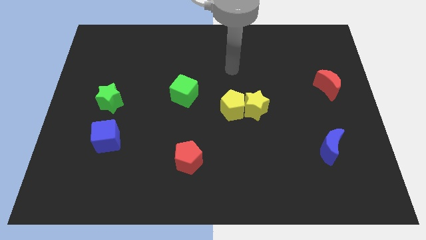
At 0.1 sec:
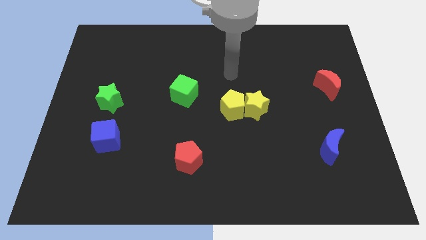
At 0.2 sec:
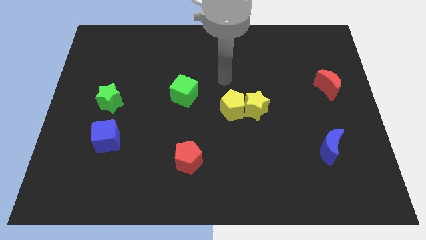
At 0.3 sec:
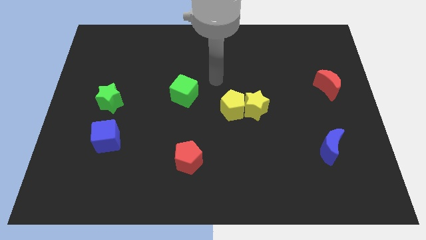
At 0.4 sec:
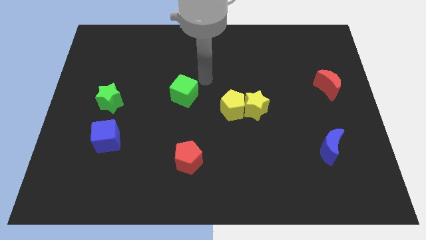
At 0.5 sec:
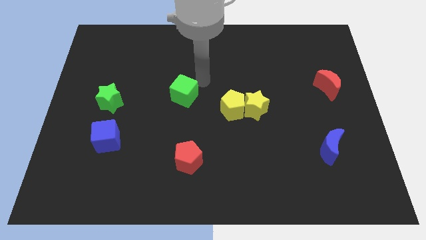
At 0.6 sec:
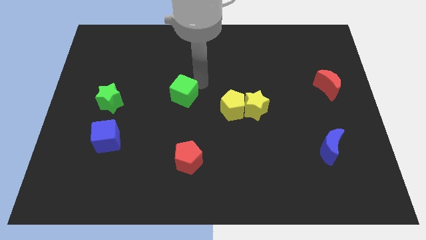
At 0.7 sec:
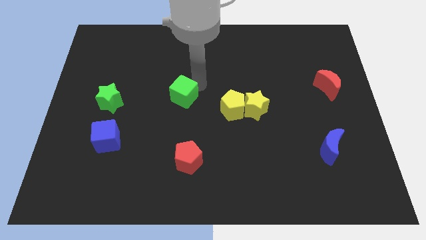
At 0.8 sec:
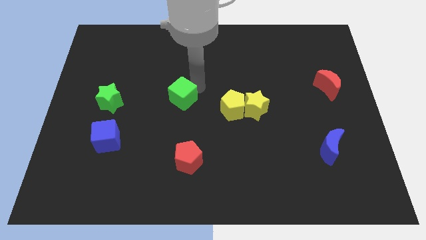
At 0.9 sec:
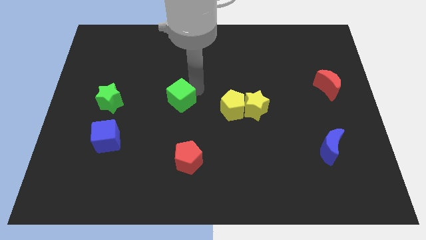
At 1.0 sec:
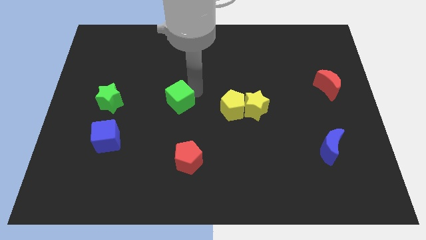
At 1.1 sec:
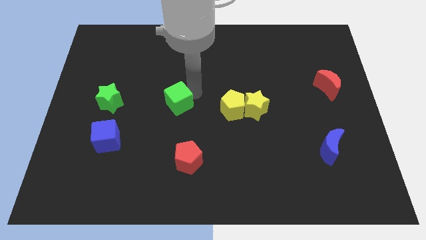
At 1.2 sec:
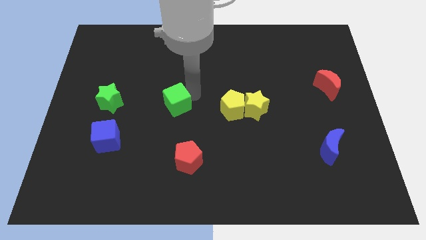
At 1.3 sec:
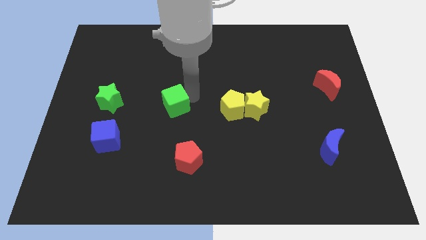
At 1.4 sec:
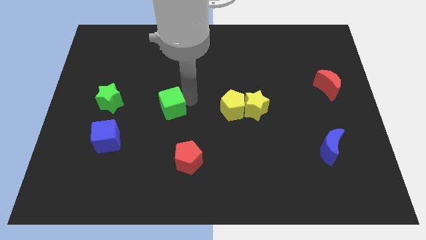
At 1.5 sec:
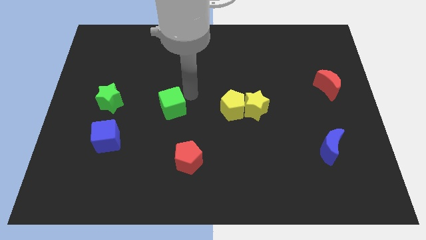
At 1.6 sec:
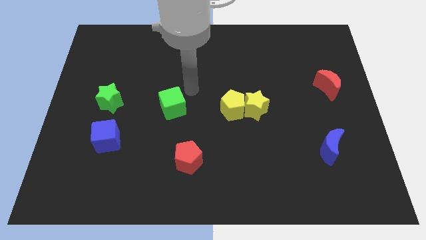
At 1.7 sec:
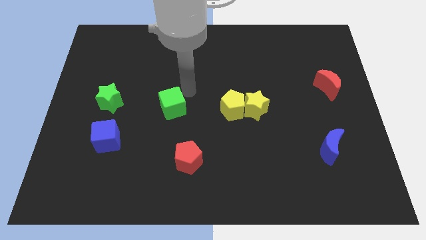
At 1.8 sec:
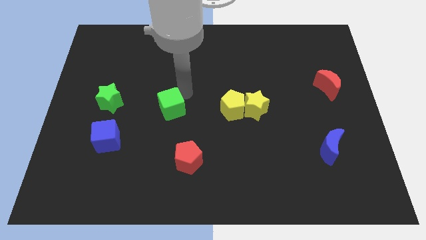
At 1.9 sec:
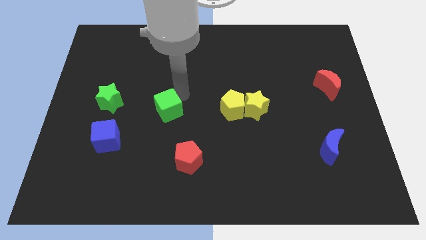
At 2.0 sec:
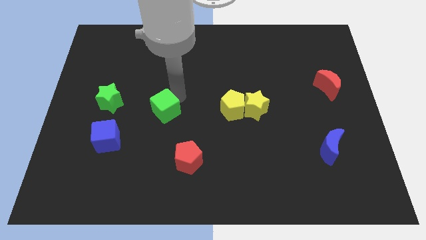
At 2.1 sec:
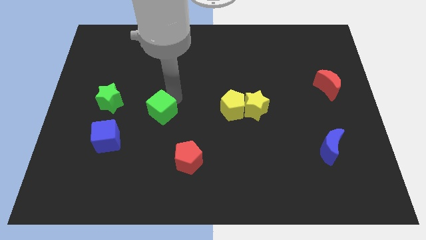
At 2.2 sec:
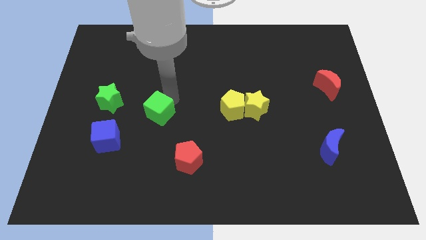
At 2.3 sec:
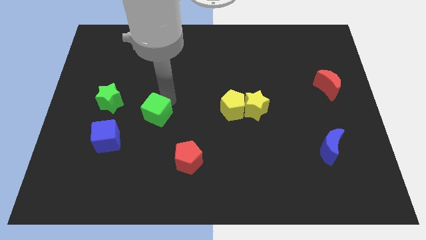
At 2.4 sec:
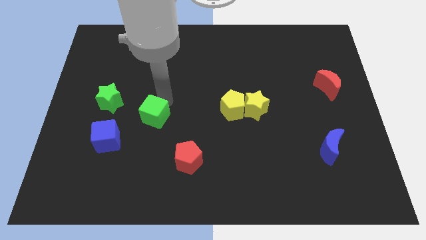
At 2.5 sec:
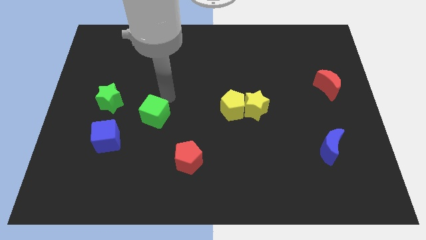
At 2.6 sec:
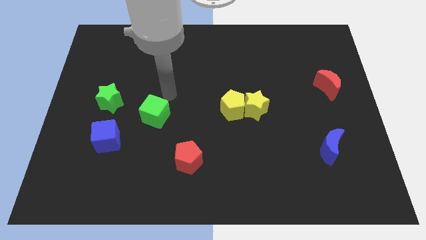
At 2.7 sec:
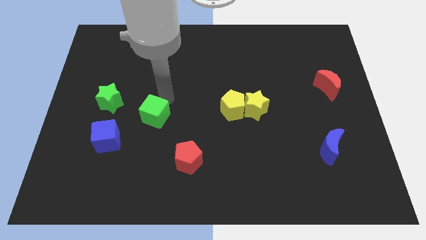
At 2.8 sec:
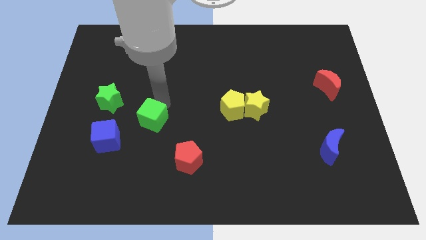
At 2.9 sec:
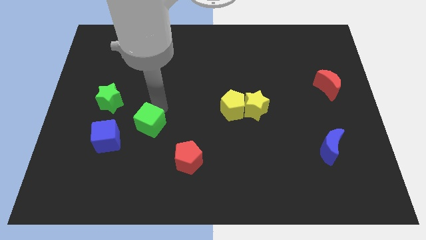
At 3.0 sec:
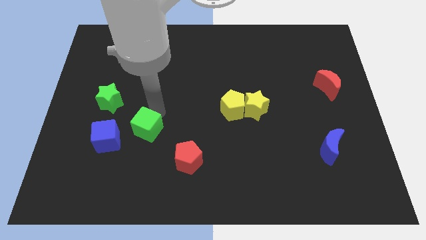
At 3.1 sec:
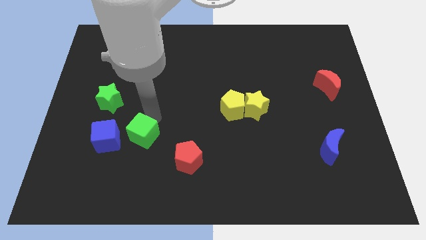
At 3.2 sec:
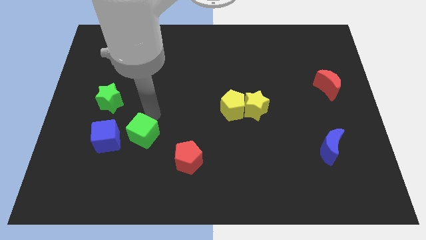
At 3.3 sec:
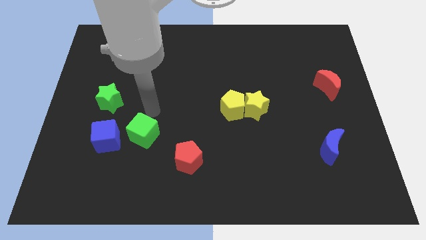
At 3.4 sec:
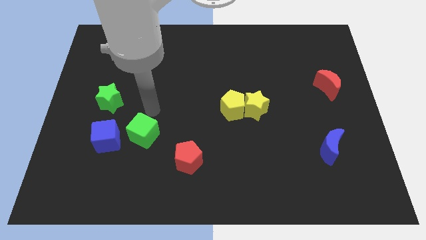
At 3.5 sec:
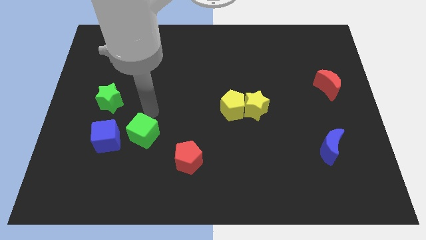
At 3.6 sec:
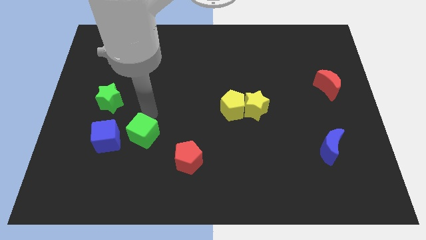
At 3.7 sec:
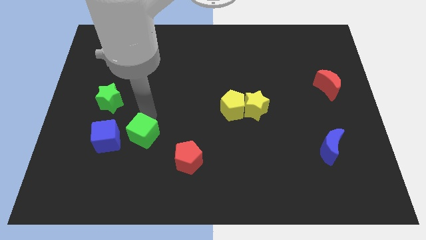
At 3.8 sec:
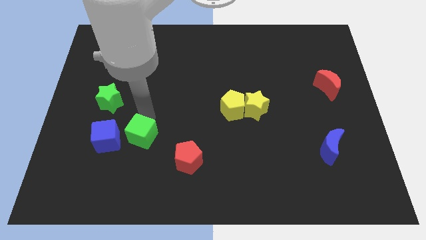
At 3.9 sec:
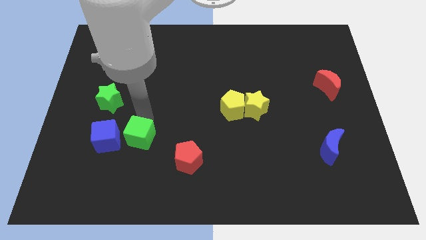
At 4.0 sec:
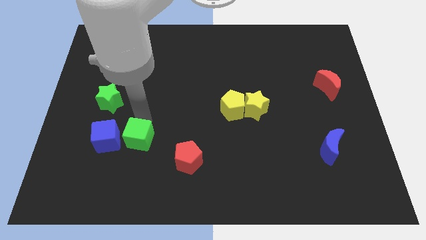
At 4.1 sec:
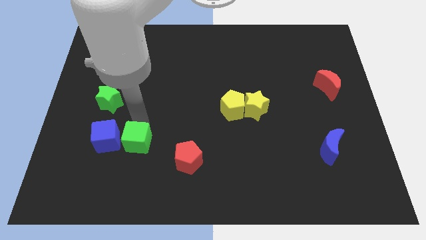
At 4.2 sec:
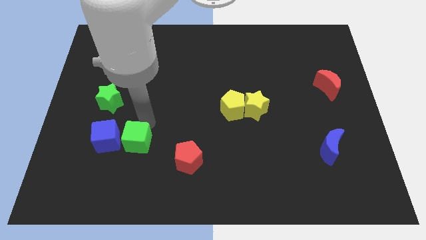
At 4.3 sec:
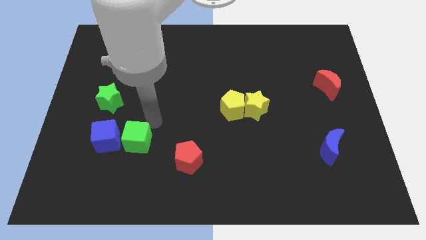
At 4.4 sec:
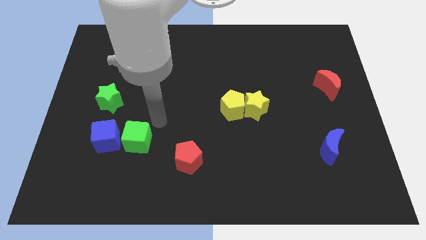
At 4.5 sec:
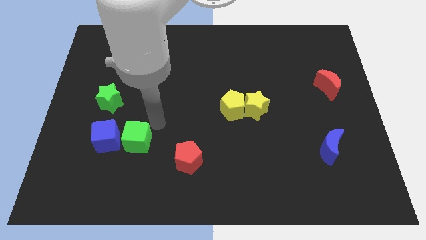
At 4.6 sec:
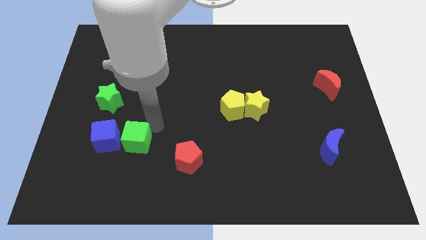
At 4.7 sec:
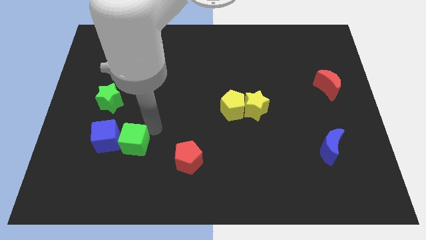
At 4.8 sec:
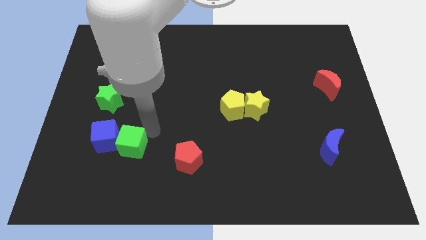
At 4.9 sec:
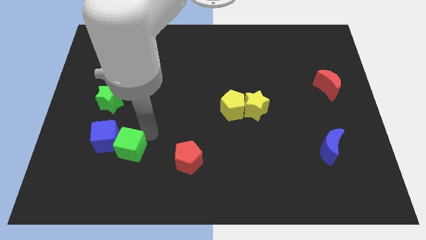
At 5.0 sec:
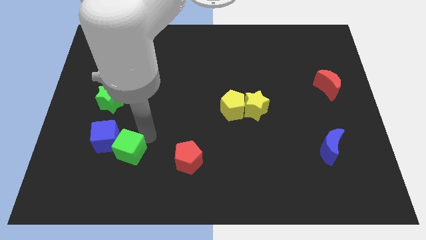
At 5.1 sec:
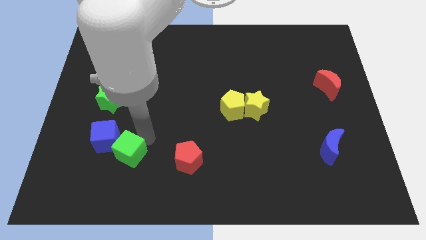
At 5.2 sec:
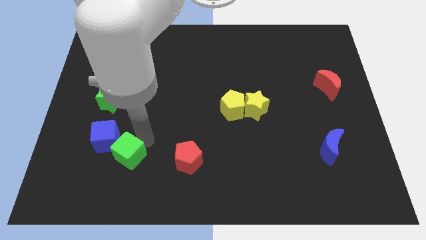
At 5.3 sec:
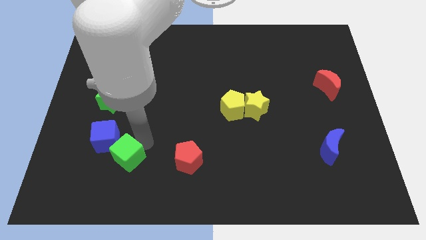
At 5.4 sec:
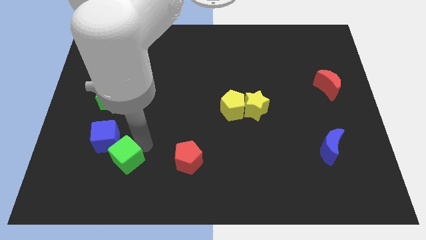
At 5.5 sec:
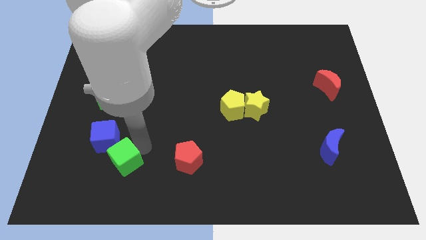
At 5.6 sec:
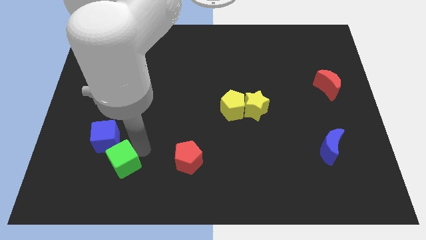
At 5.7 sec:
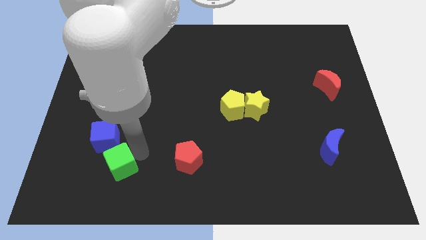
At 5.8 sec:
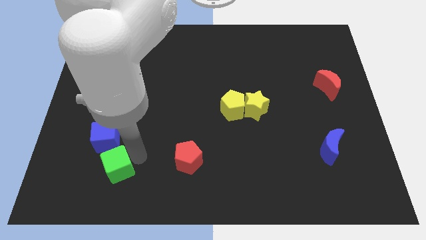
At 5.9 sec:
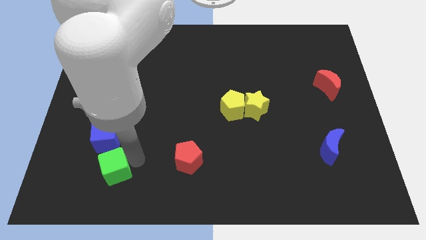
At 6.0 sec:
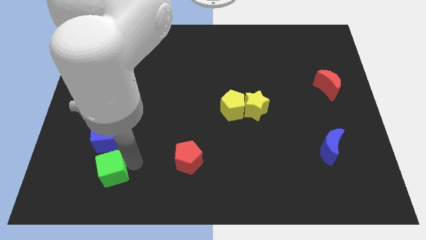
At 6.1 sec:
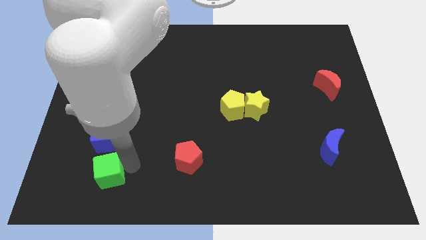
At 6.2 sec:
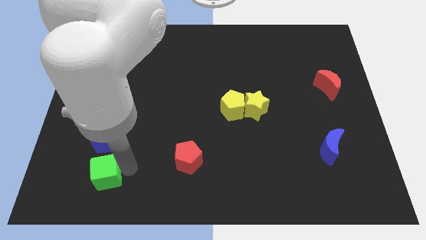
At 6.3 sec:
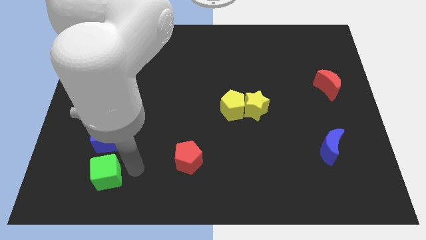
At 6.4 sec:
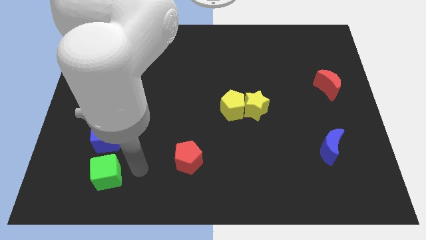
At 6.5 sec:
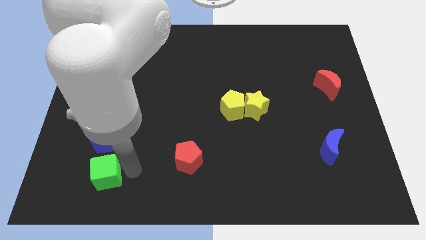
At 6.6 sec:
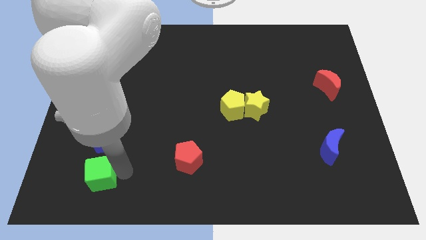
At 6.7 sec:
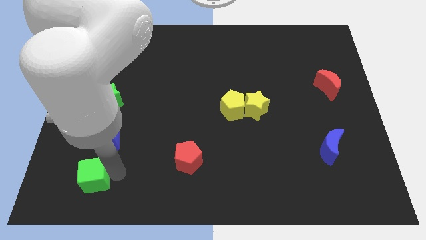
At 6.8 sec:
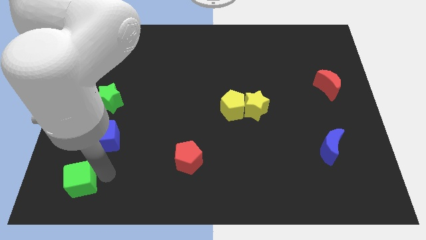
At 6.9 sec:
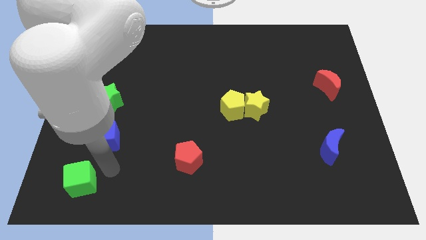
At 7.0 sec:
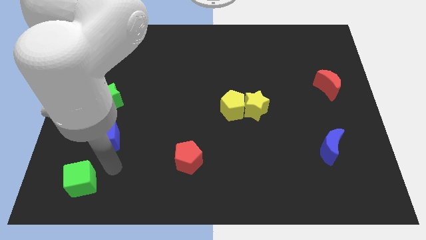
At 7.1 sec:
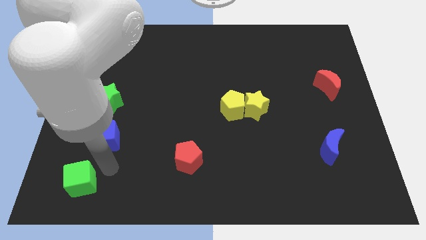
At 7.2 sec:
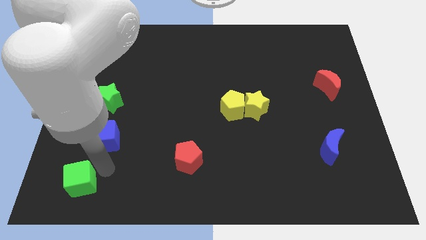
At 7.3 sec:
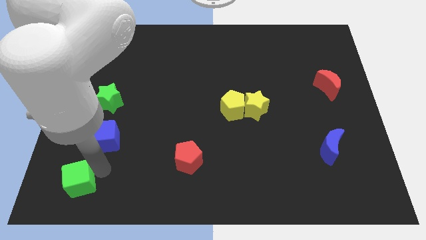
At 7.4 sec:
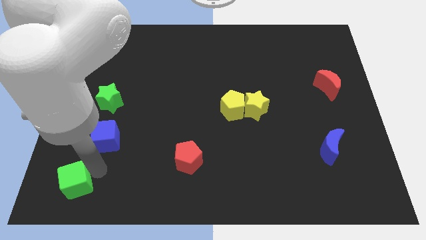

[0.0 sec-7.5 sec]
move the green cube to the bottom left corner
